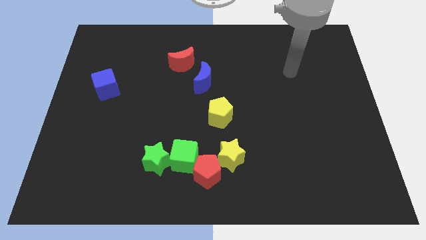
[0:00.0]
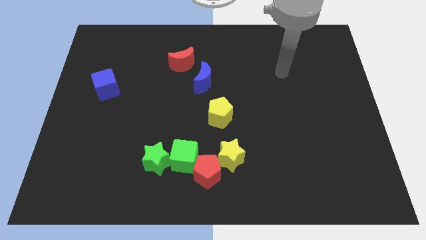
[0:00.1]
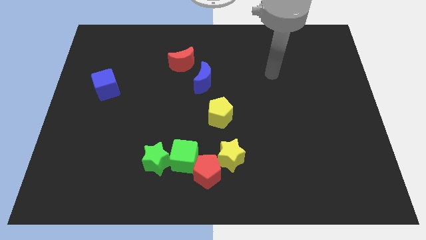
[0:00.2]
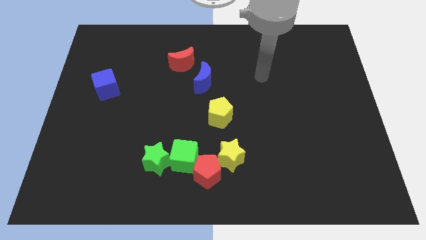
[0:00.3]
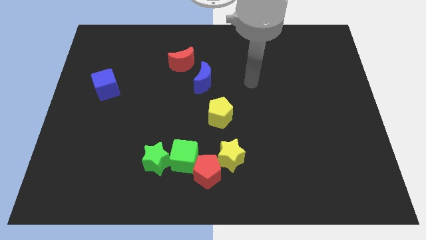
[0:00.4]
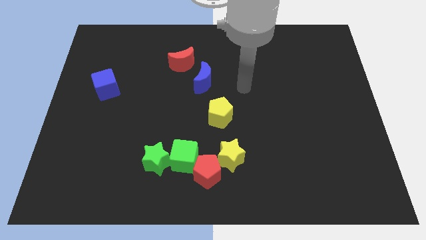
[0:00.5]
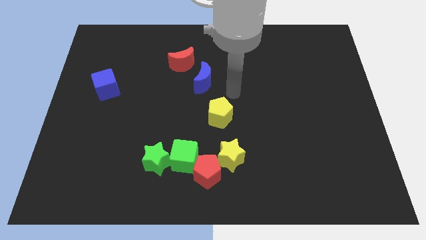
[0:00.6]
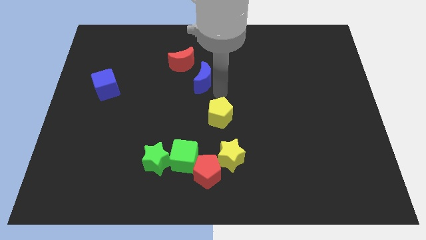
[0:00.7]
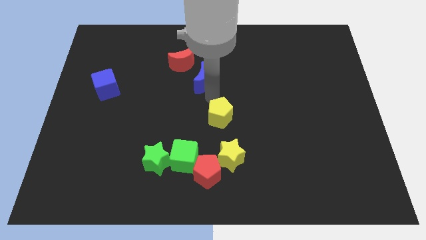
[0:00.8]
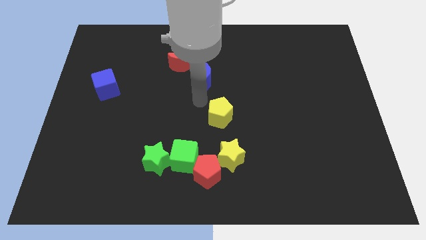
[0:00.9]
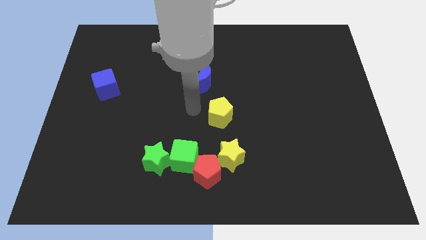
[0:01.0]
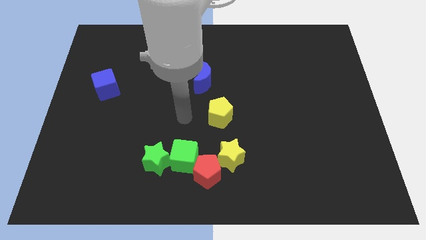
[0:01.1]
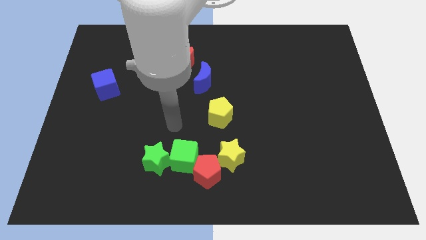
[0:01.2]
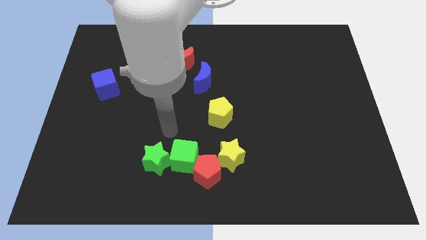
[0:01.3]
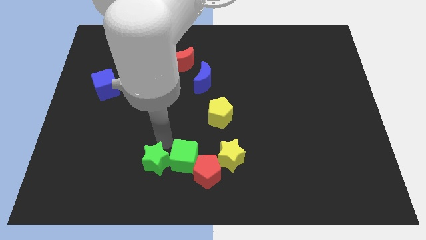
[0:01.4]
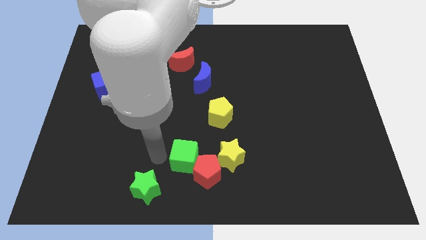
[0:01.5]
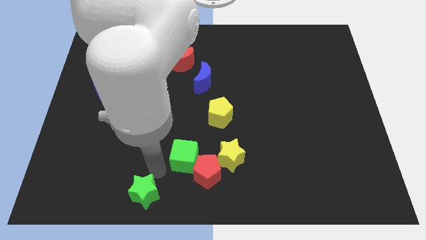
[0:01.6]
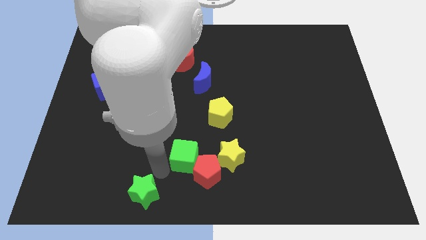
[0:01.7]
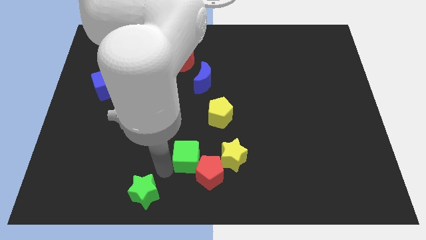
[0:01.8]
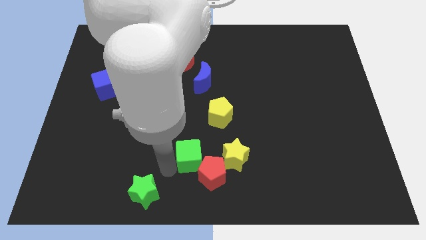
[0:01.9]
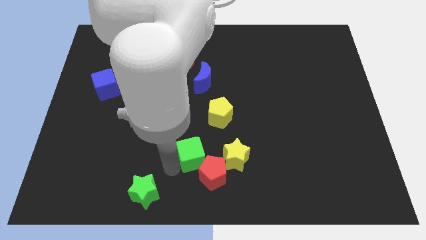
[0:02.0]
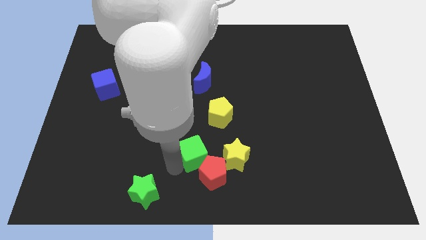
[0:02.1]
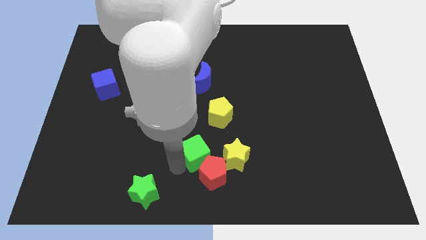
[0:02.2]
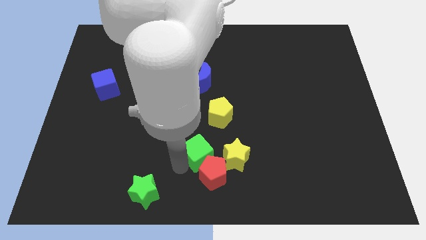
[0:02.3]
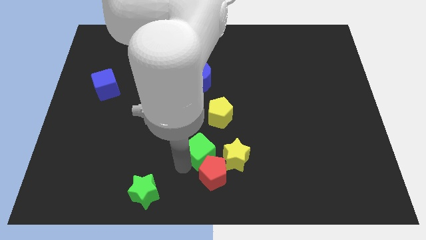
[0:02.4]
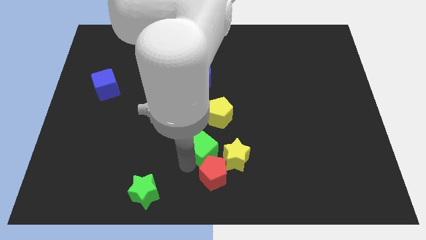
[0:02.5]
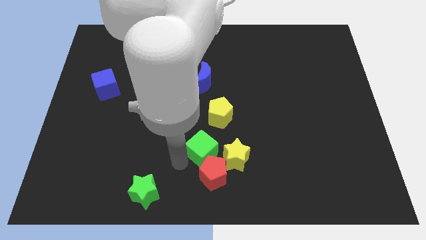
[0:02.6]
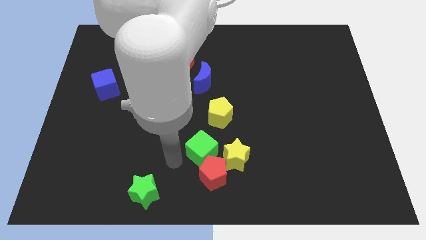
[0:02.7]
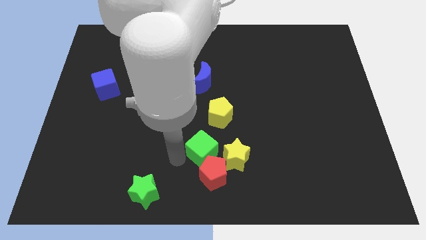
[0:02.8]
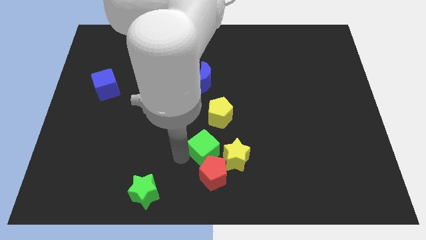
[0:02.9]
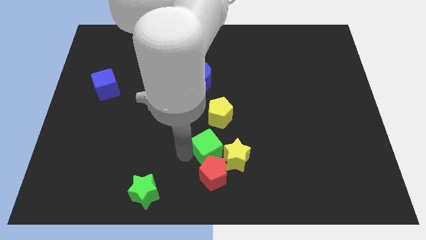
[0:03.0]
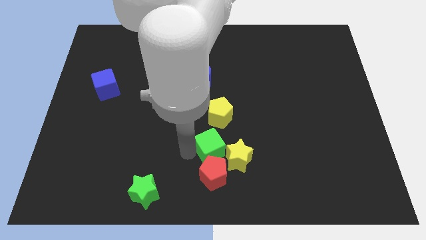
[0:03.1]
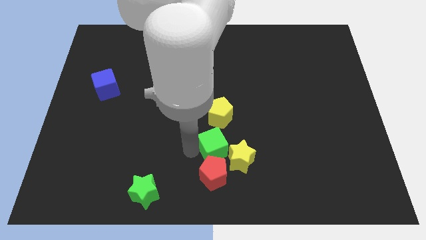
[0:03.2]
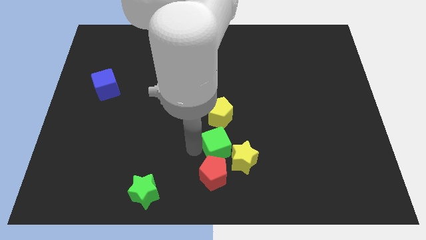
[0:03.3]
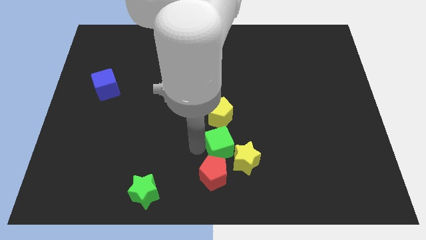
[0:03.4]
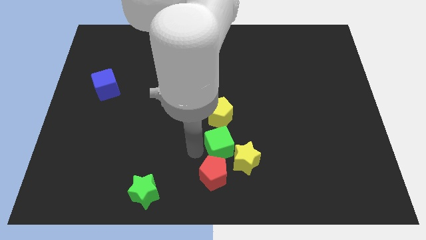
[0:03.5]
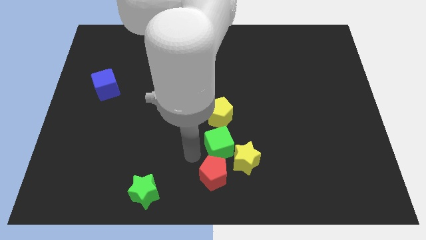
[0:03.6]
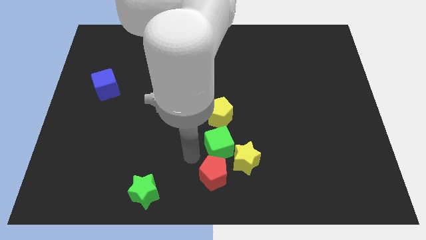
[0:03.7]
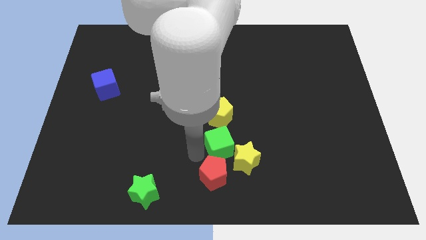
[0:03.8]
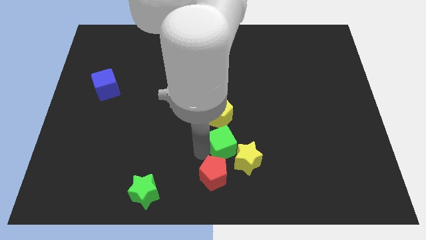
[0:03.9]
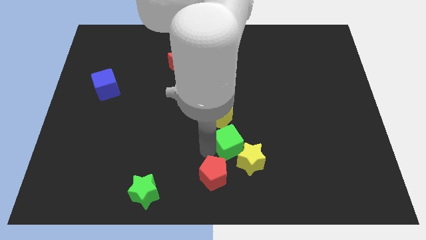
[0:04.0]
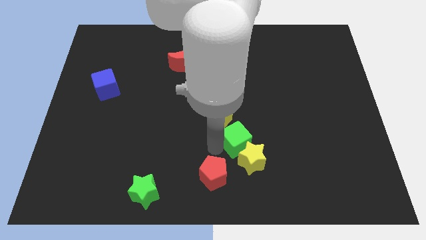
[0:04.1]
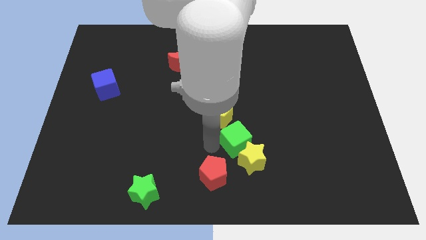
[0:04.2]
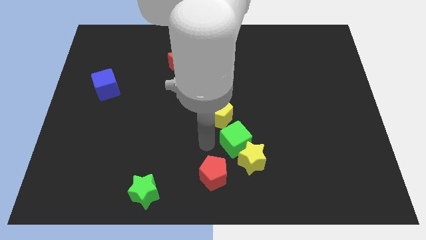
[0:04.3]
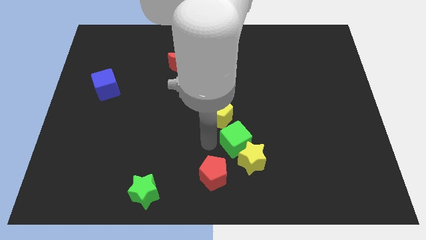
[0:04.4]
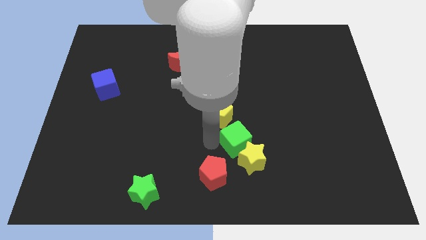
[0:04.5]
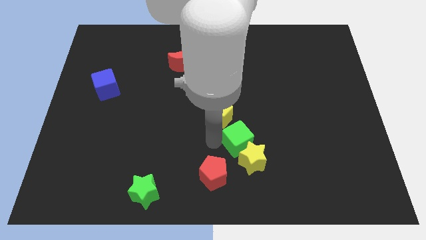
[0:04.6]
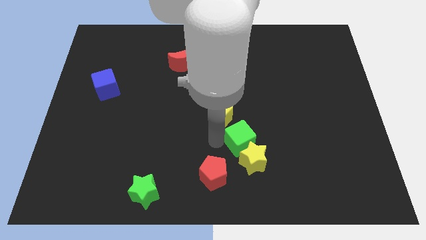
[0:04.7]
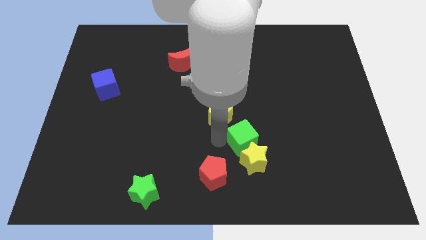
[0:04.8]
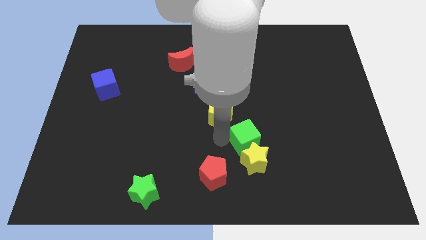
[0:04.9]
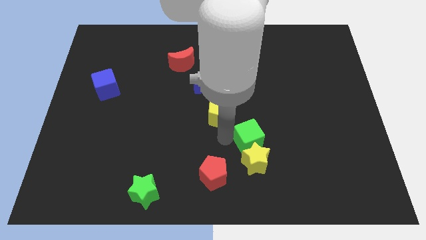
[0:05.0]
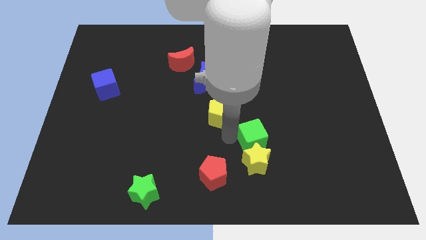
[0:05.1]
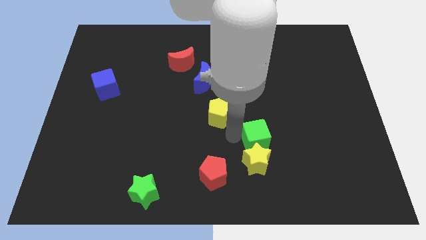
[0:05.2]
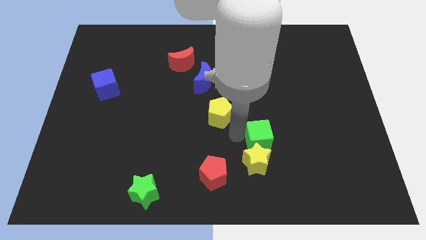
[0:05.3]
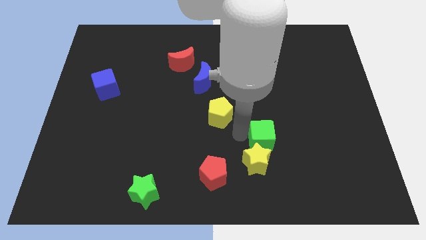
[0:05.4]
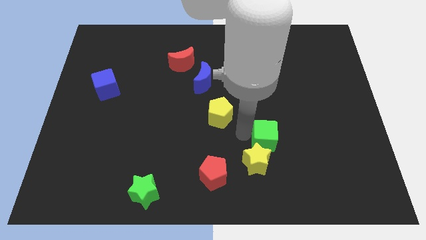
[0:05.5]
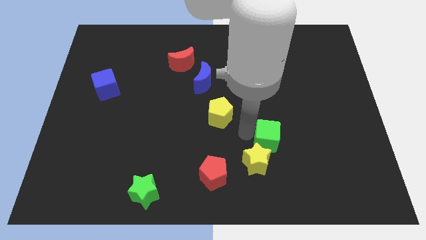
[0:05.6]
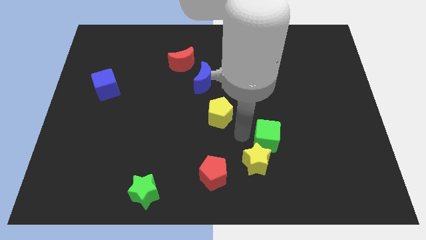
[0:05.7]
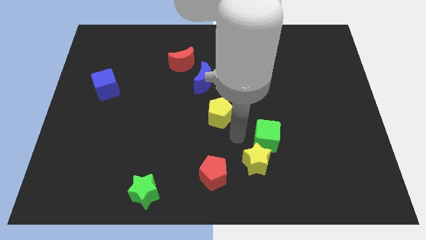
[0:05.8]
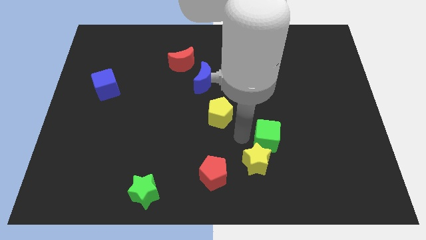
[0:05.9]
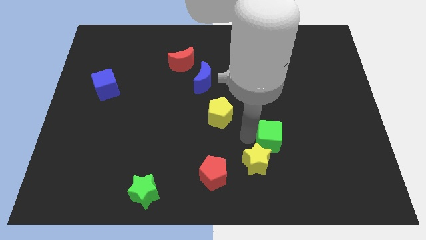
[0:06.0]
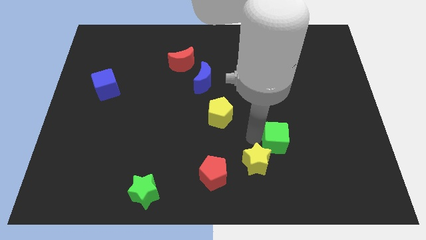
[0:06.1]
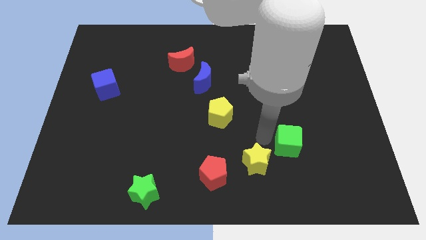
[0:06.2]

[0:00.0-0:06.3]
move the green cube to the right

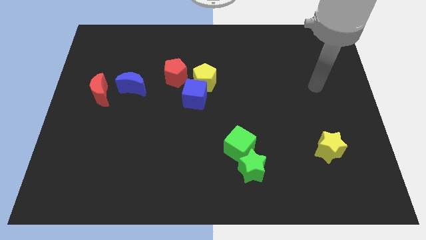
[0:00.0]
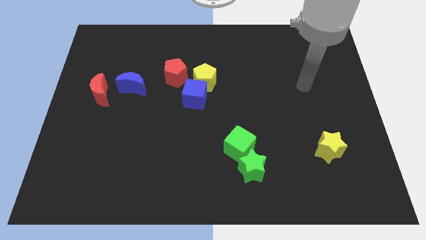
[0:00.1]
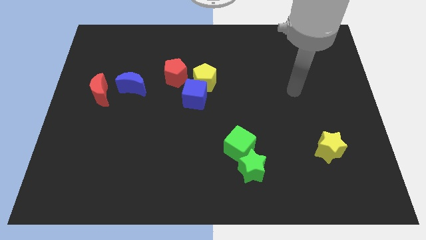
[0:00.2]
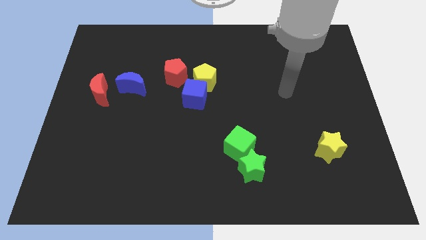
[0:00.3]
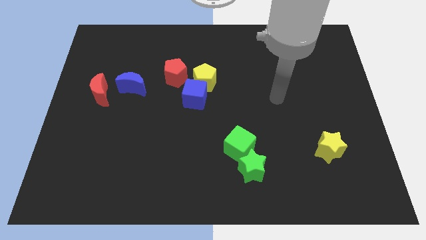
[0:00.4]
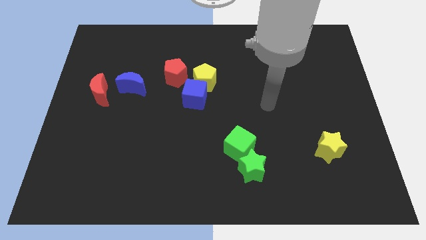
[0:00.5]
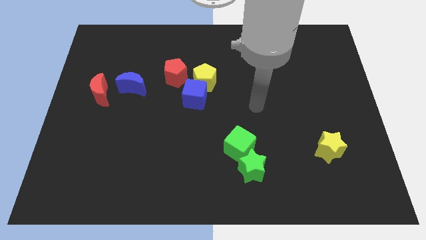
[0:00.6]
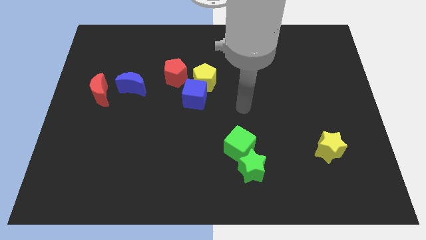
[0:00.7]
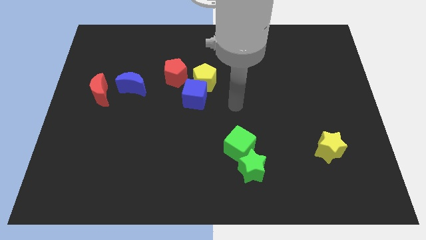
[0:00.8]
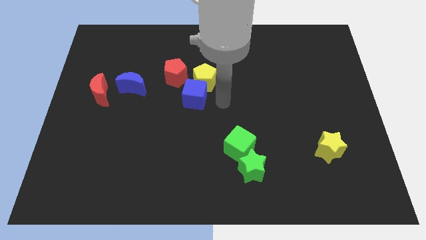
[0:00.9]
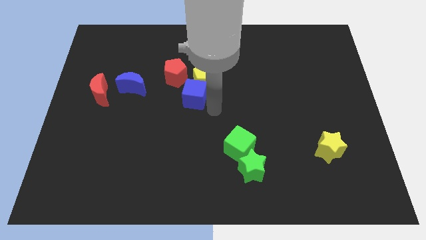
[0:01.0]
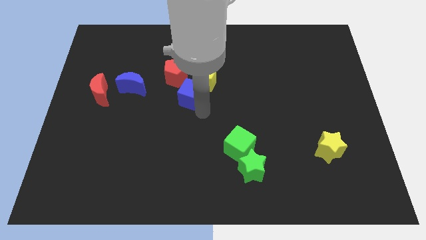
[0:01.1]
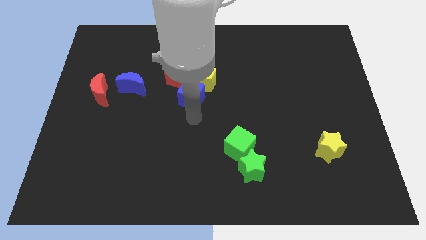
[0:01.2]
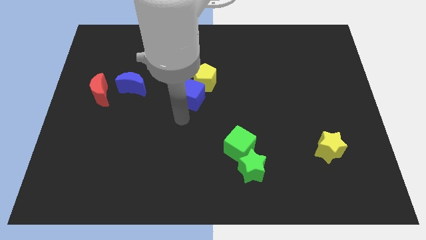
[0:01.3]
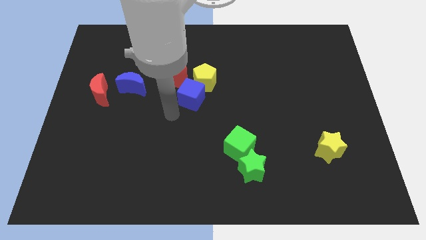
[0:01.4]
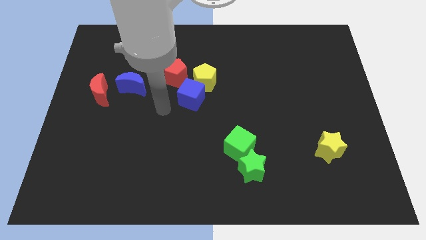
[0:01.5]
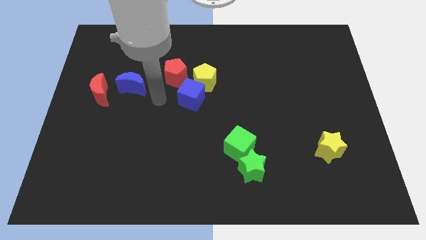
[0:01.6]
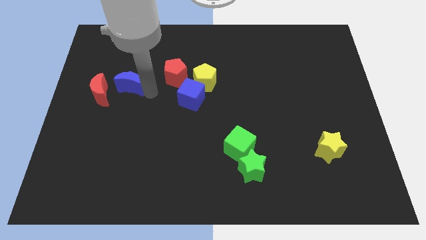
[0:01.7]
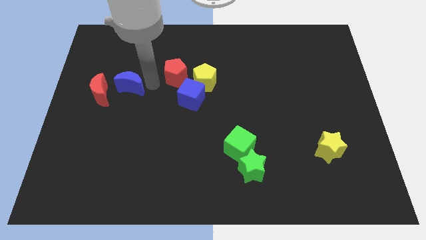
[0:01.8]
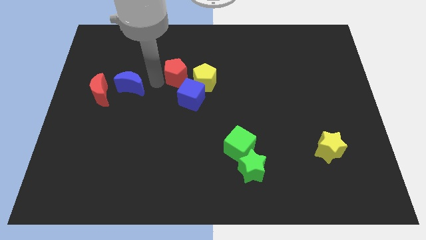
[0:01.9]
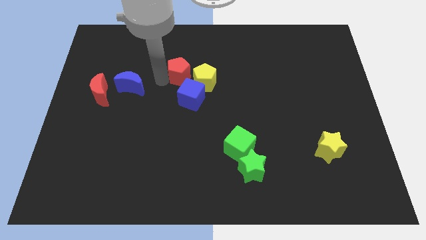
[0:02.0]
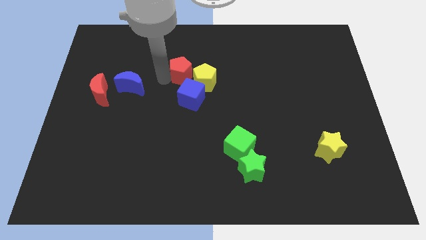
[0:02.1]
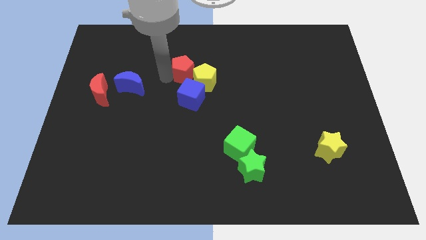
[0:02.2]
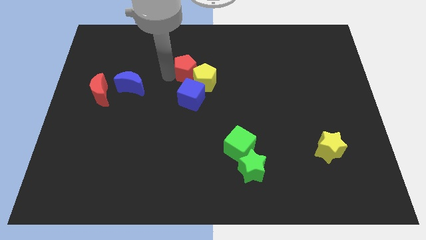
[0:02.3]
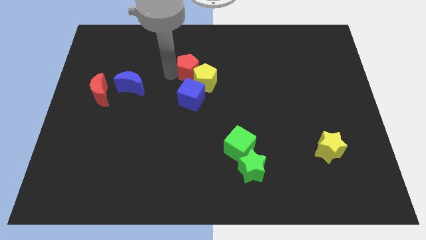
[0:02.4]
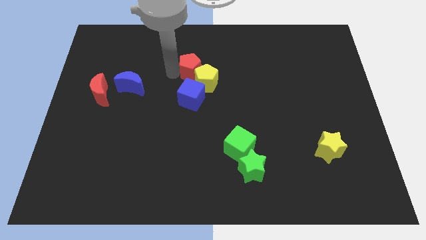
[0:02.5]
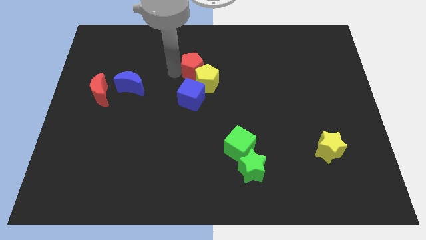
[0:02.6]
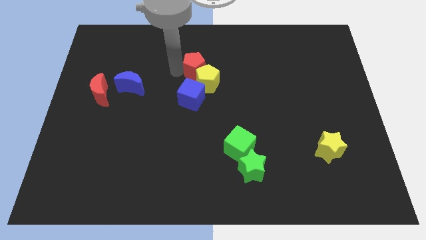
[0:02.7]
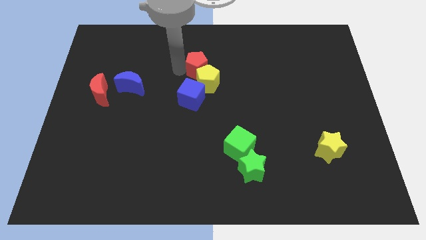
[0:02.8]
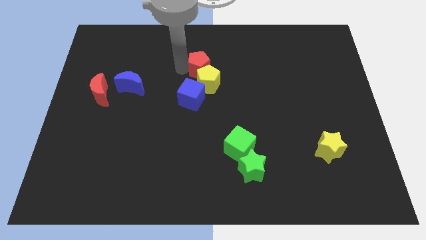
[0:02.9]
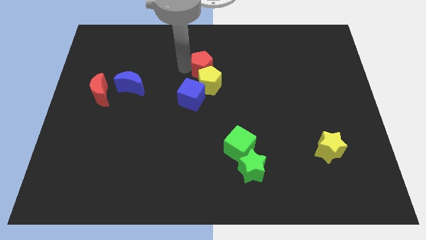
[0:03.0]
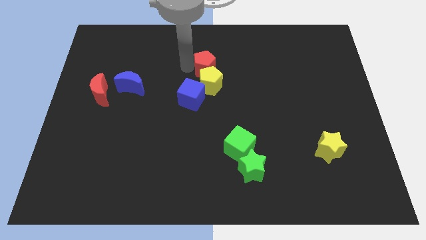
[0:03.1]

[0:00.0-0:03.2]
slightly slide the red pentagon to the right
